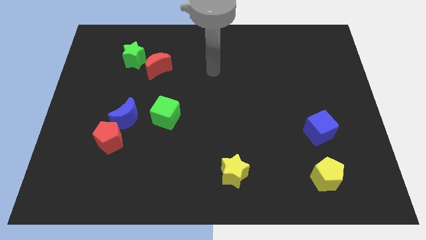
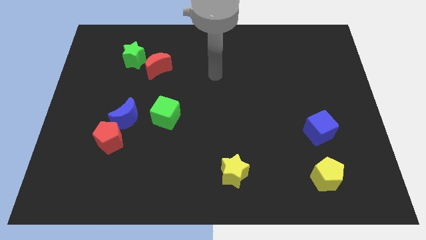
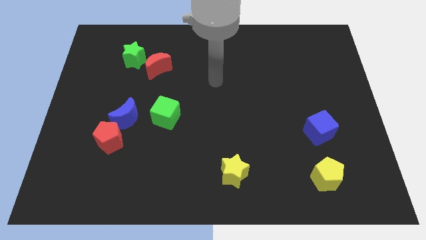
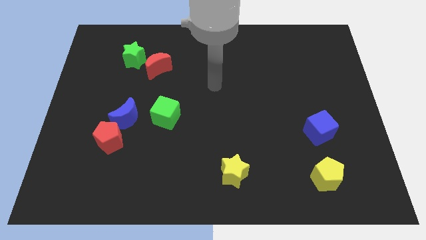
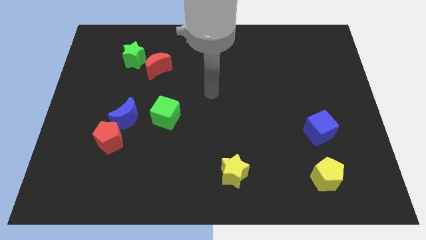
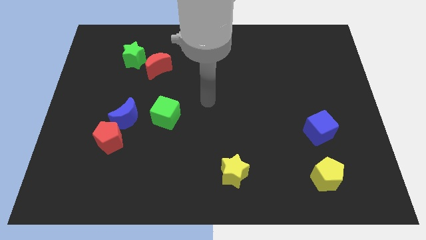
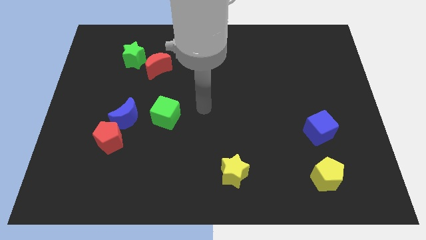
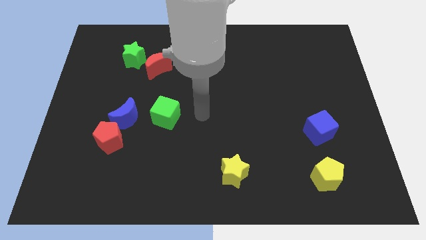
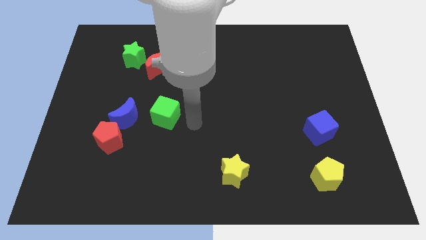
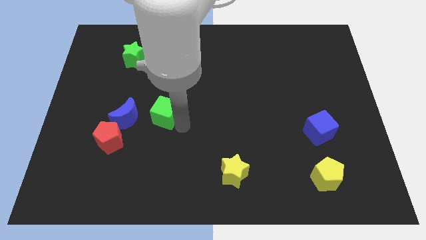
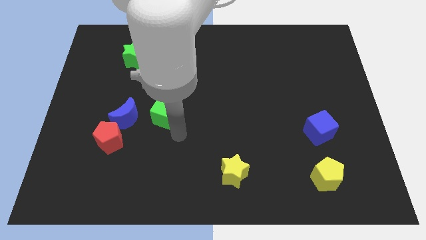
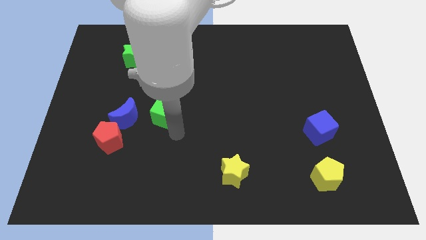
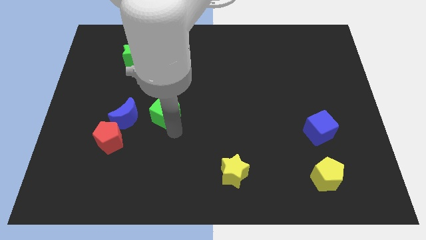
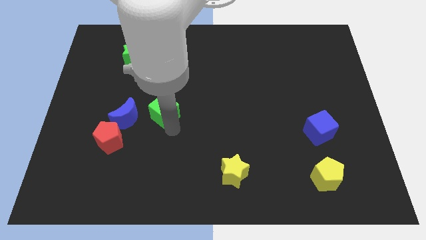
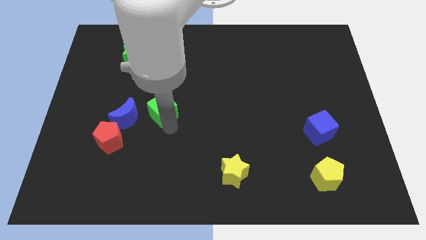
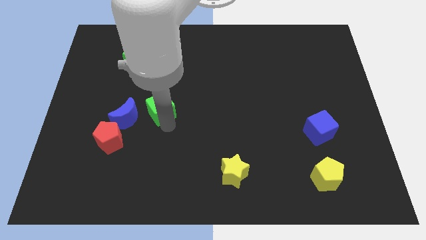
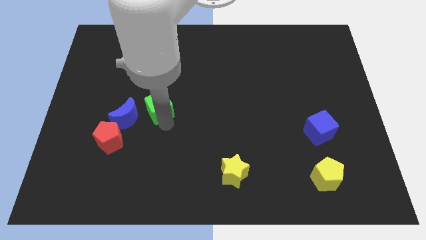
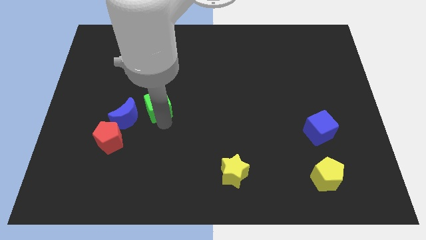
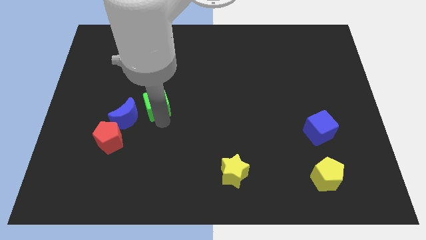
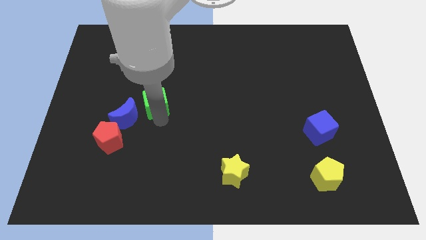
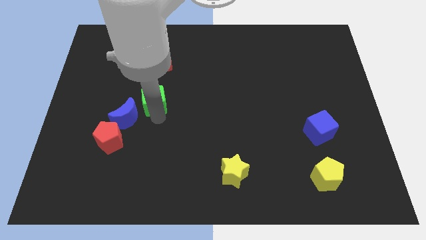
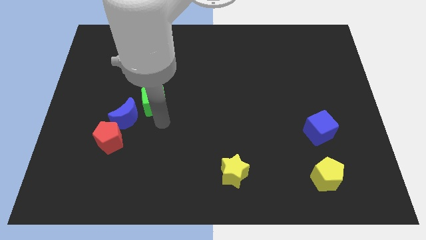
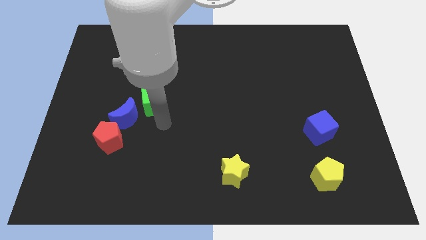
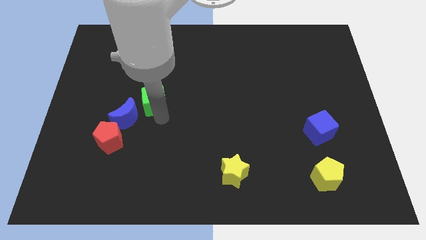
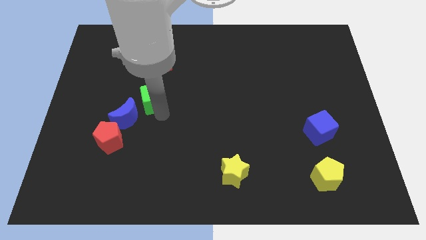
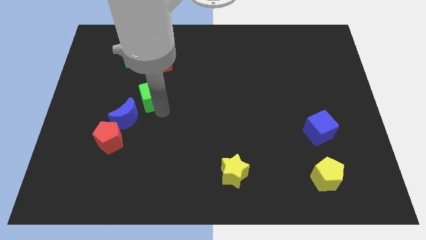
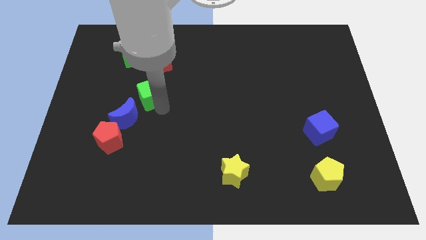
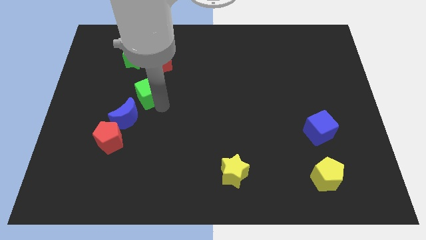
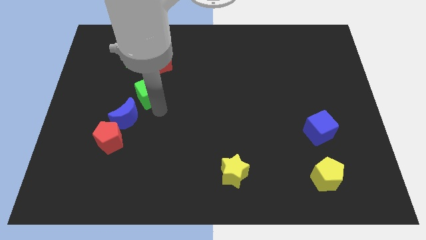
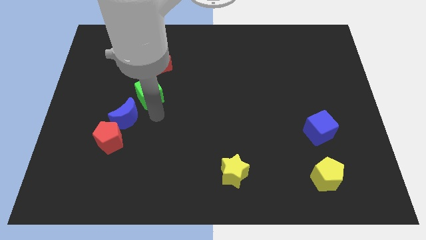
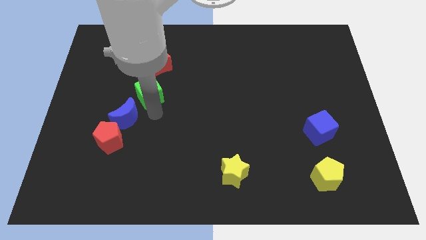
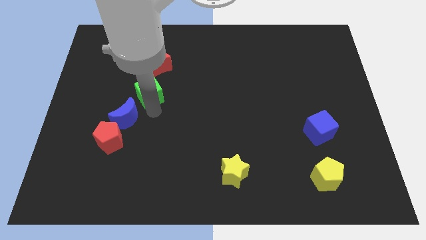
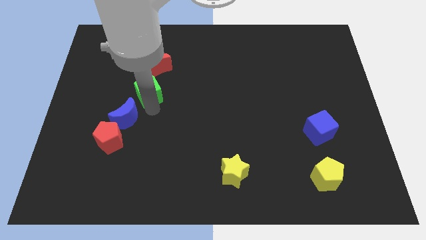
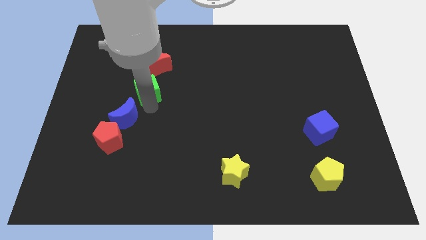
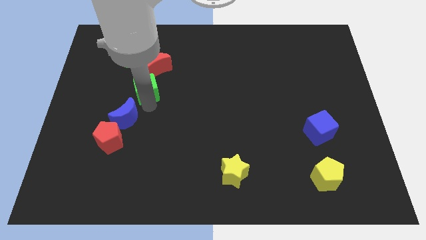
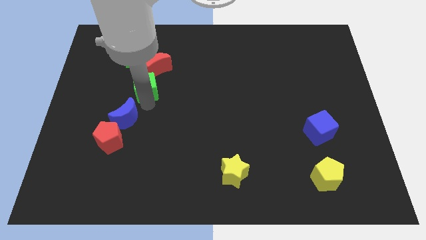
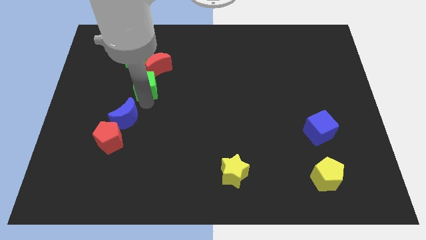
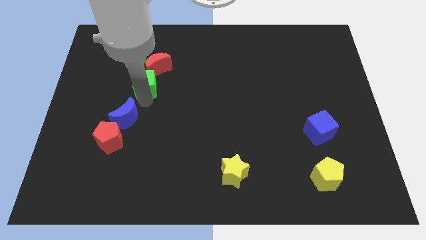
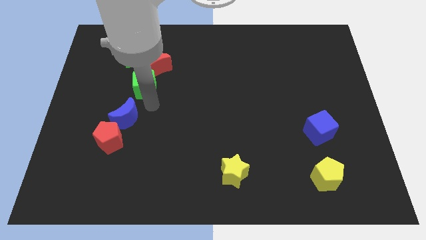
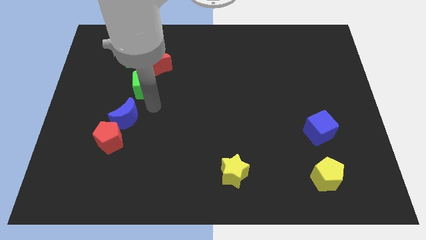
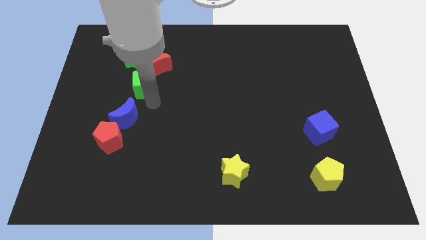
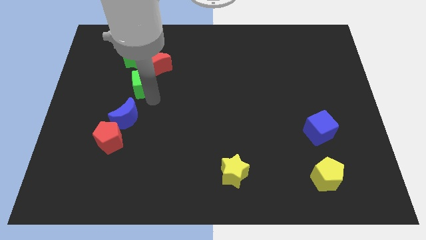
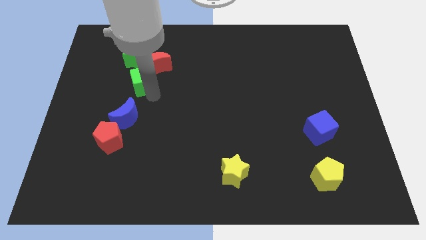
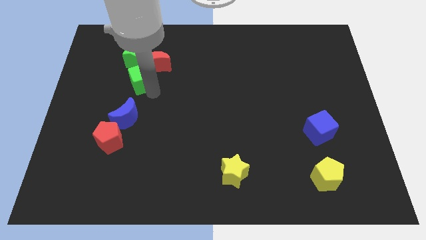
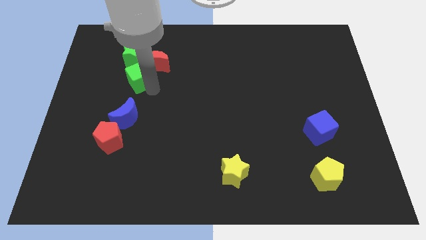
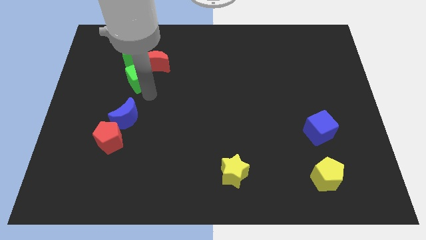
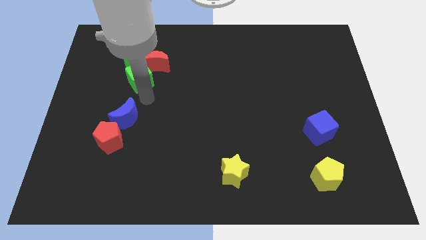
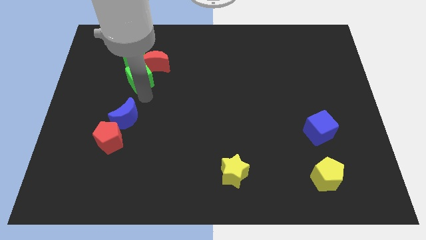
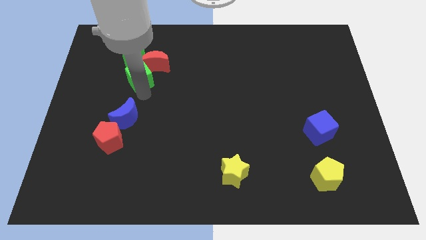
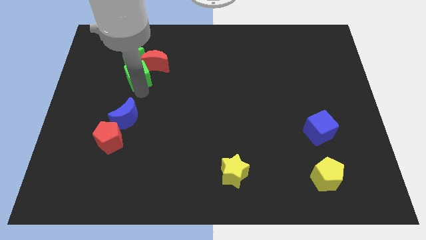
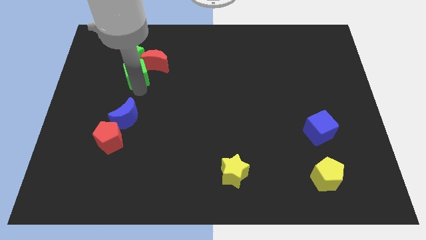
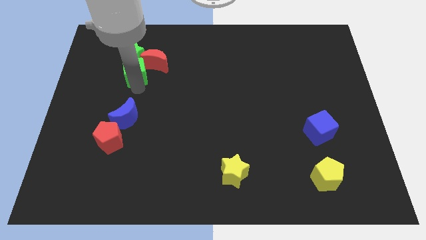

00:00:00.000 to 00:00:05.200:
put the green cube to the green star

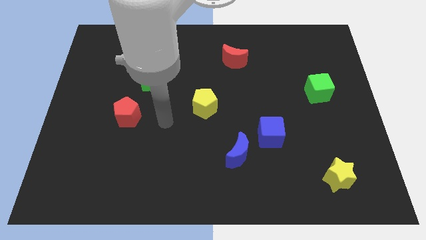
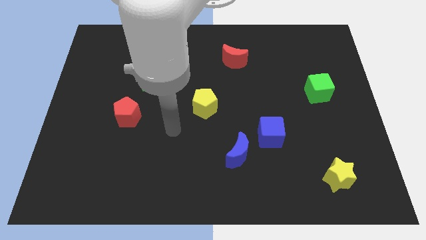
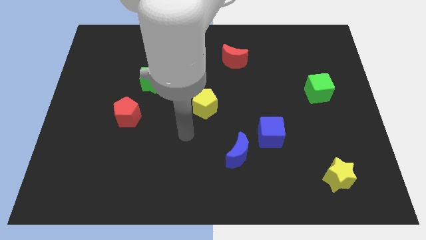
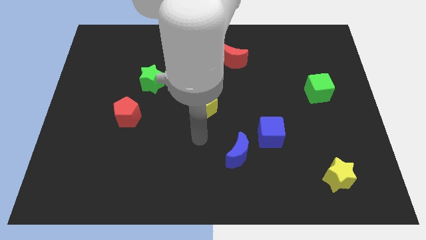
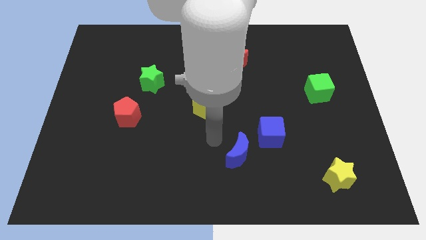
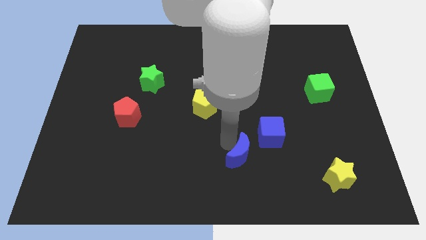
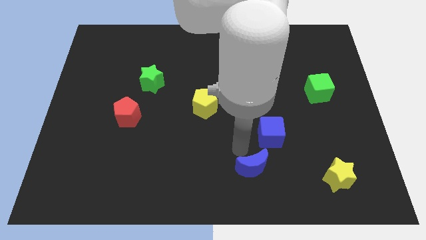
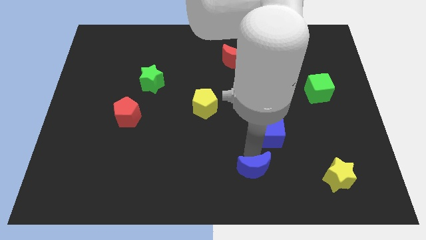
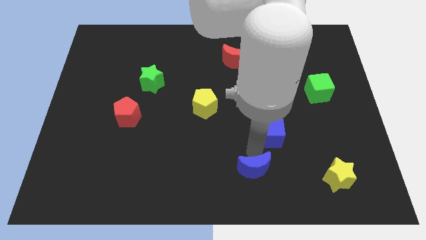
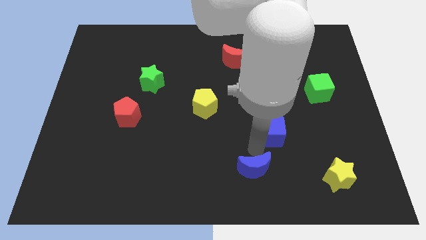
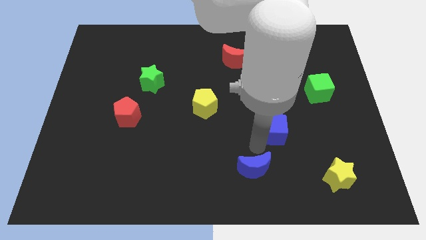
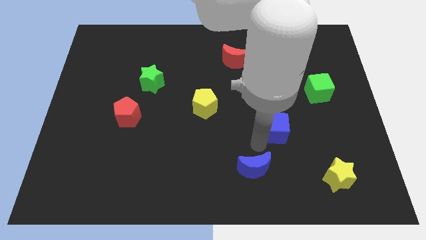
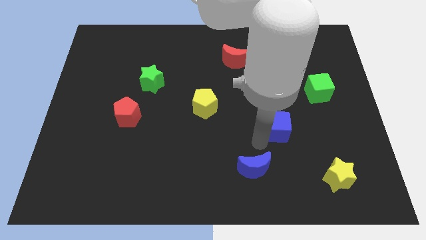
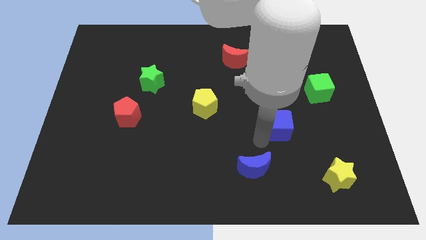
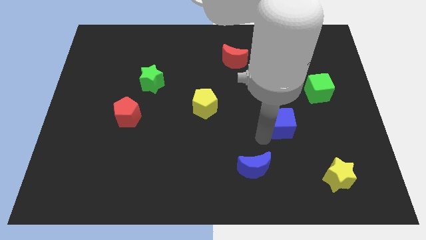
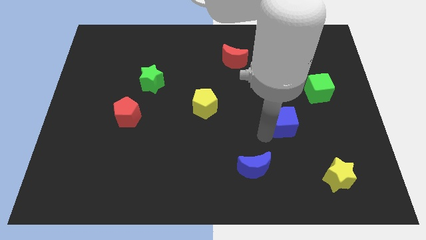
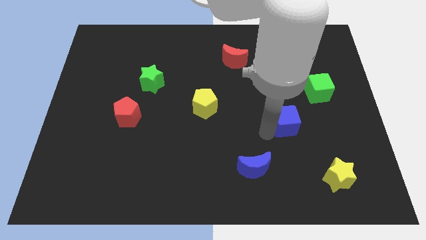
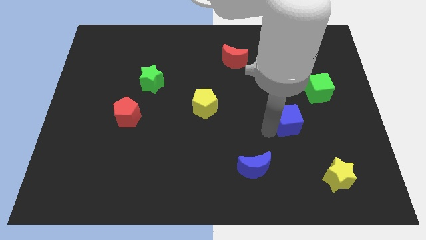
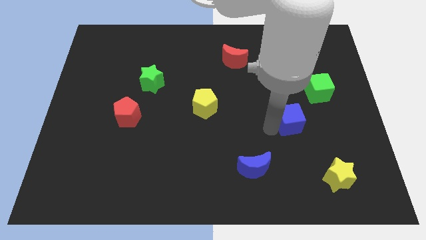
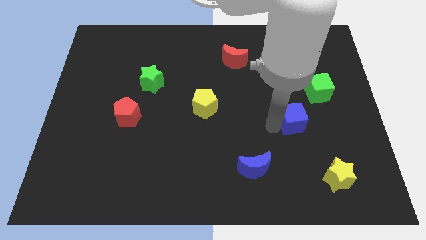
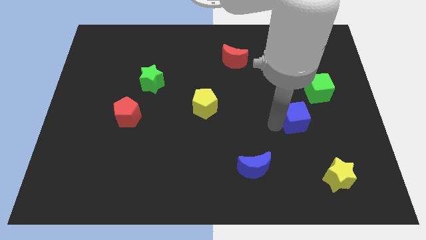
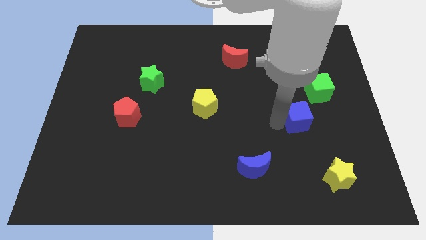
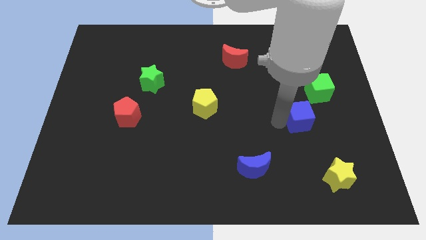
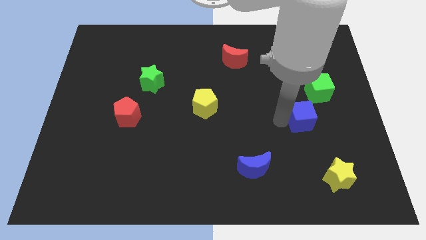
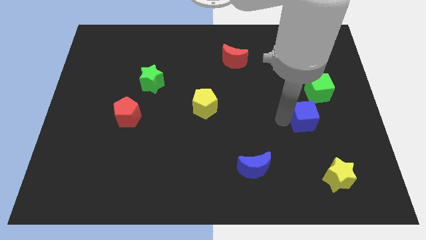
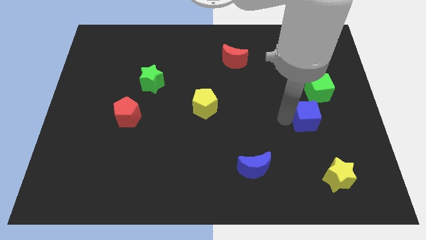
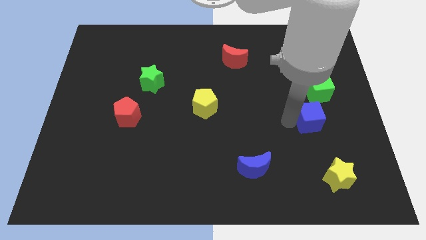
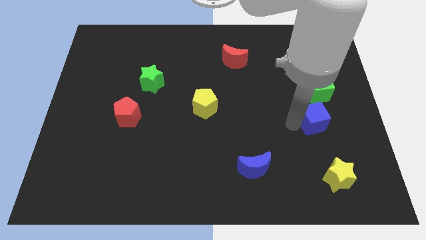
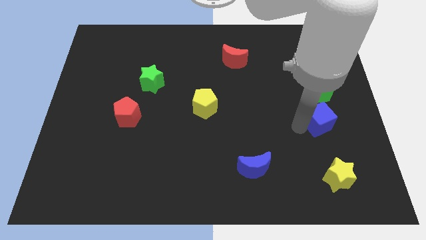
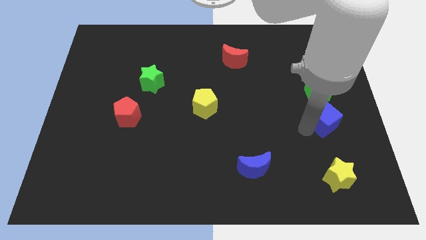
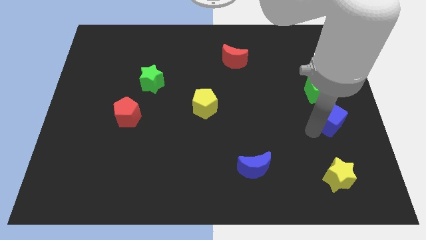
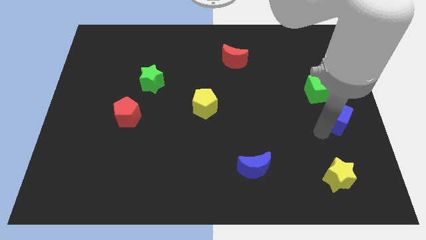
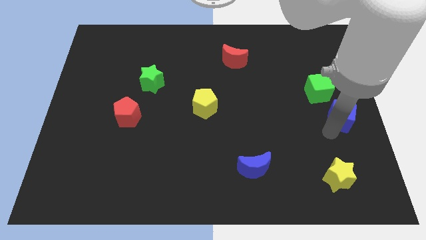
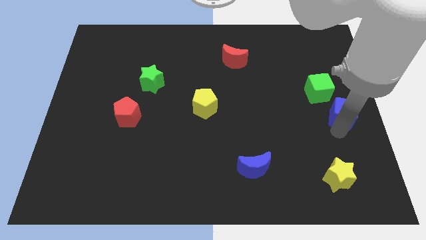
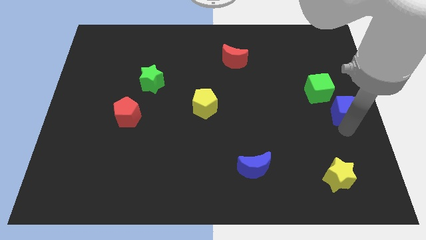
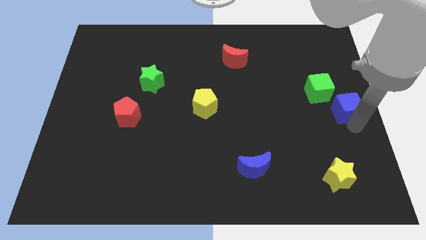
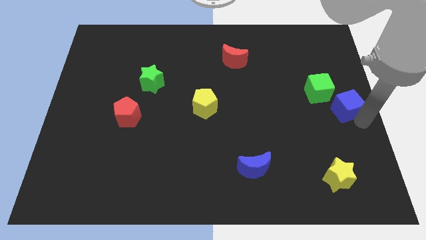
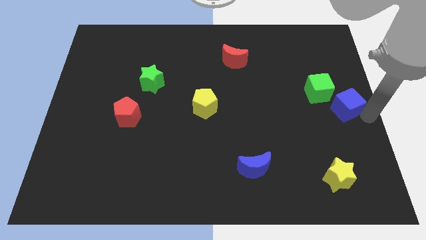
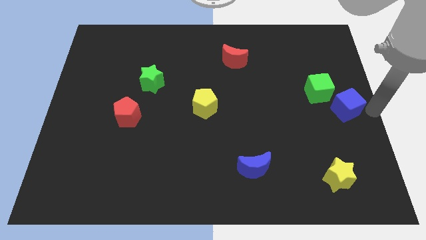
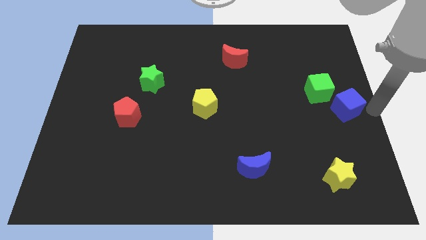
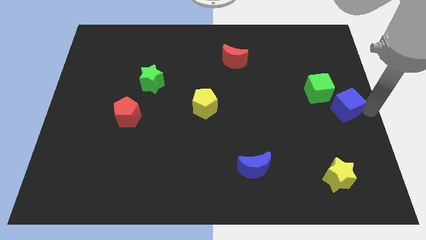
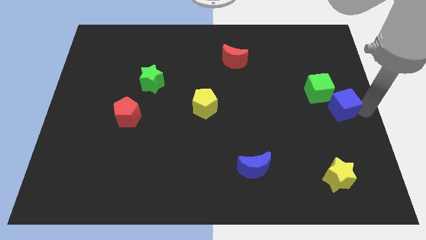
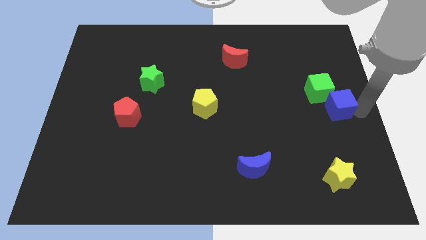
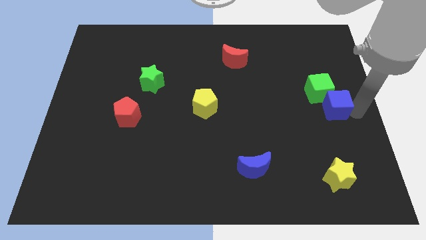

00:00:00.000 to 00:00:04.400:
move the blue cube to the green cube
